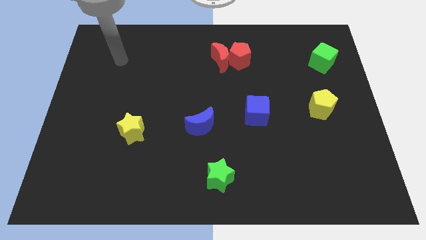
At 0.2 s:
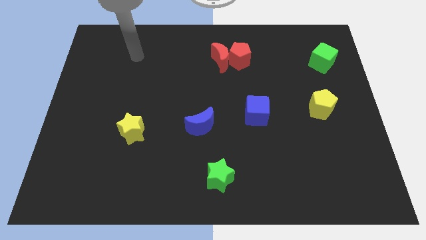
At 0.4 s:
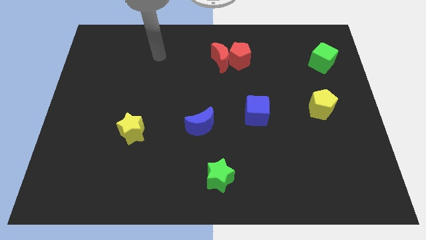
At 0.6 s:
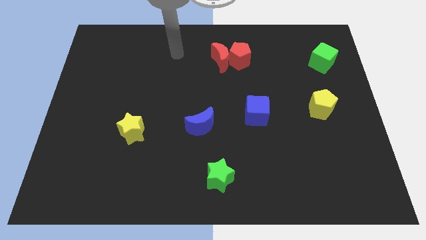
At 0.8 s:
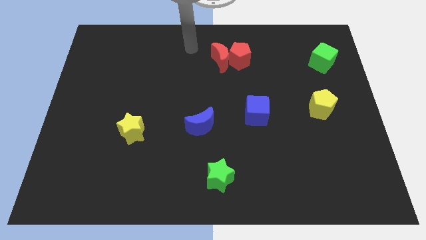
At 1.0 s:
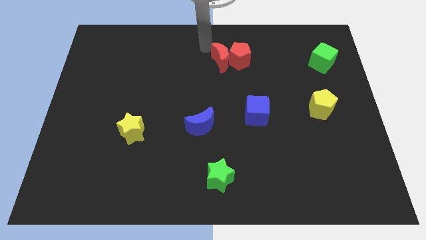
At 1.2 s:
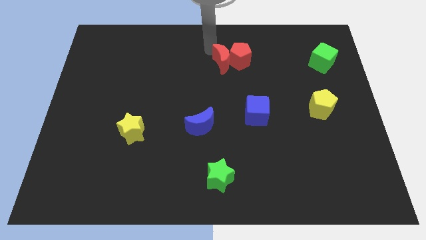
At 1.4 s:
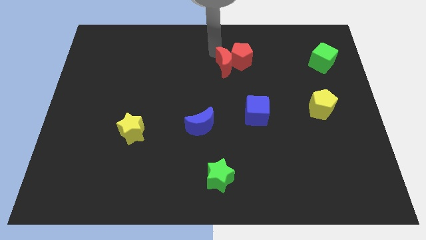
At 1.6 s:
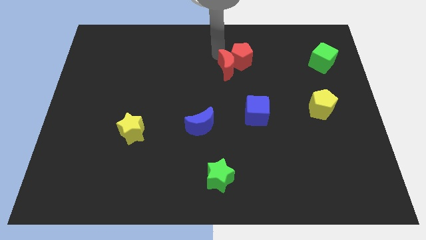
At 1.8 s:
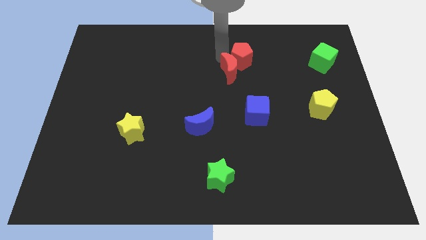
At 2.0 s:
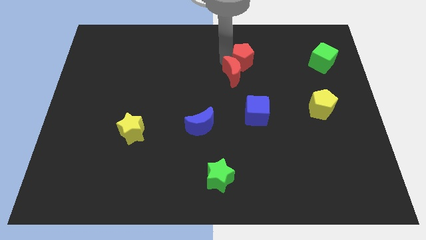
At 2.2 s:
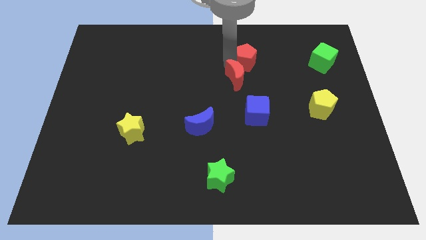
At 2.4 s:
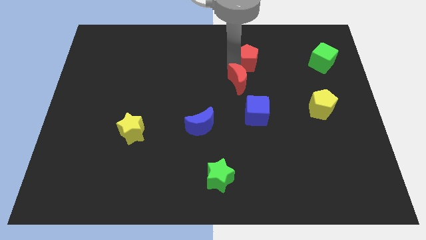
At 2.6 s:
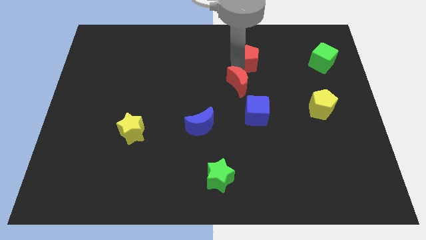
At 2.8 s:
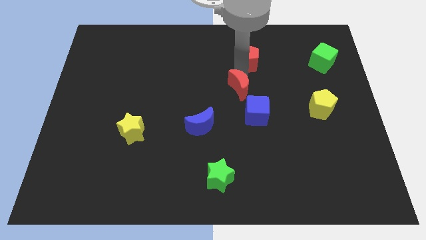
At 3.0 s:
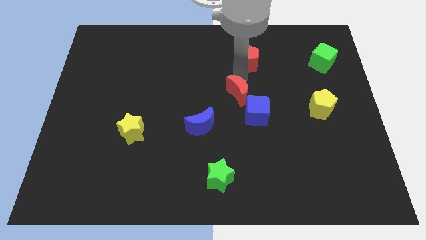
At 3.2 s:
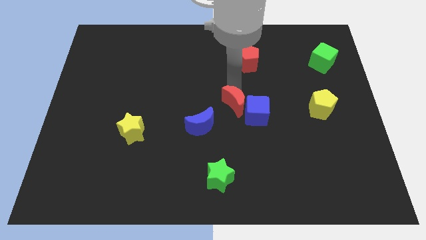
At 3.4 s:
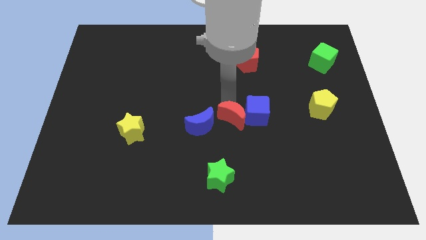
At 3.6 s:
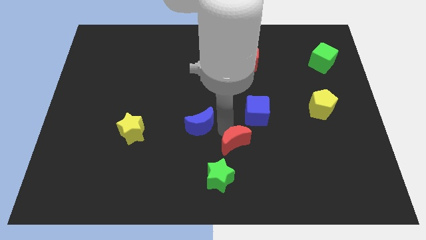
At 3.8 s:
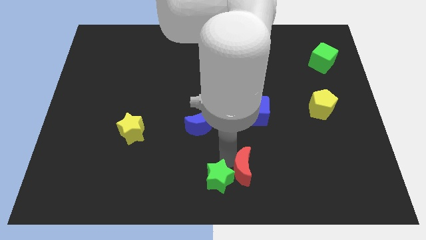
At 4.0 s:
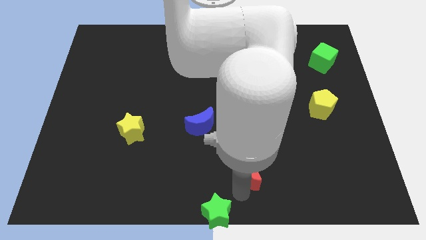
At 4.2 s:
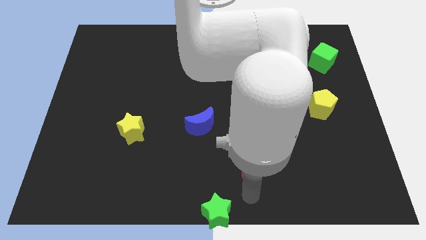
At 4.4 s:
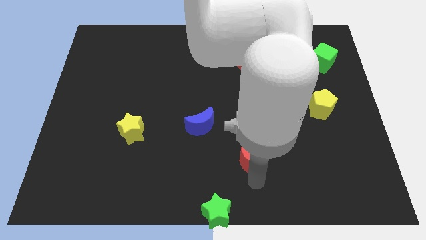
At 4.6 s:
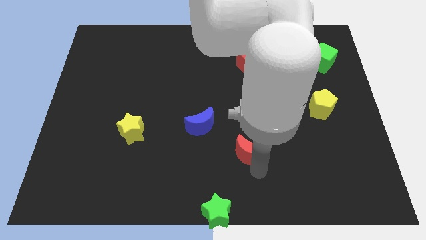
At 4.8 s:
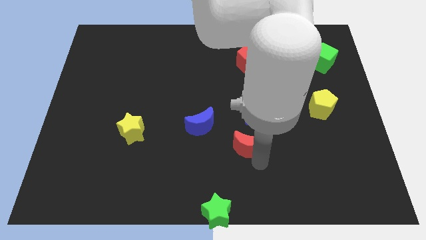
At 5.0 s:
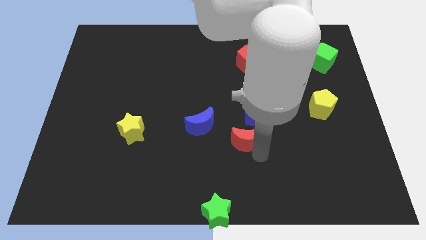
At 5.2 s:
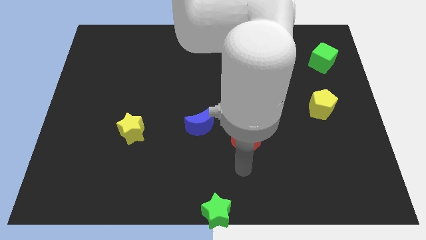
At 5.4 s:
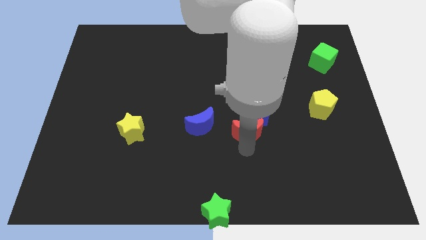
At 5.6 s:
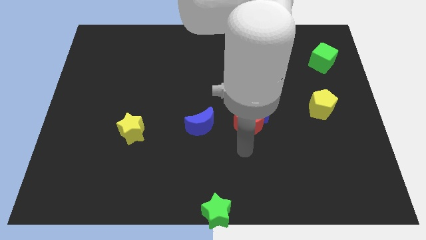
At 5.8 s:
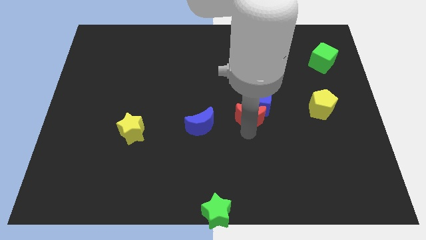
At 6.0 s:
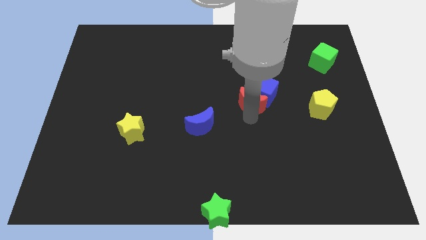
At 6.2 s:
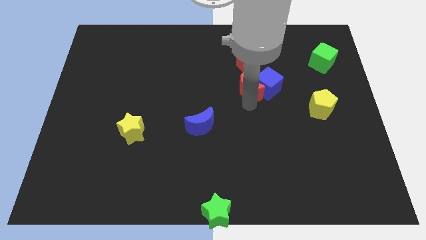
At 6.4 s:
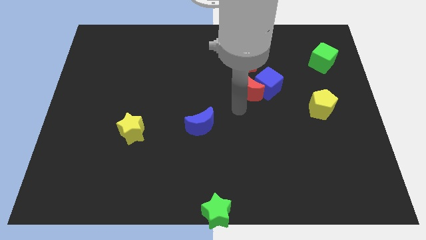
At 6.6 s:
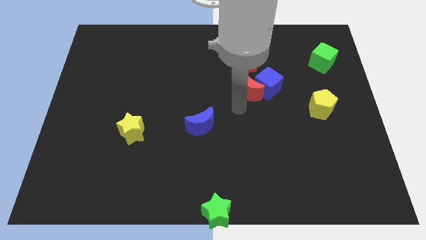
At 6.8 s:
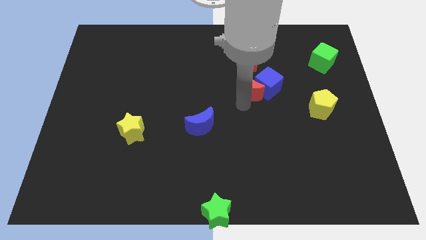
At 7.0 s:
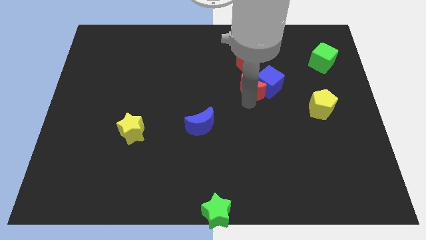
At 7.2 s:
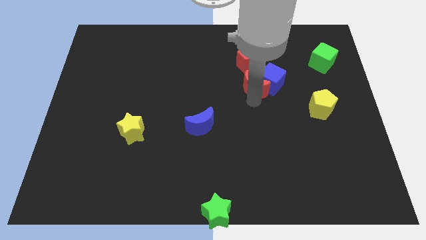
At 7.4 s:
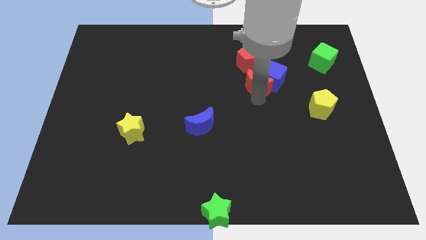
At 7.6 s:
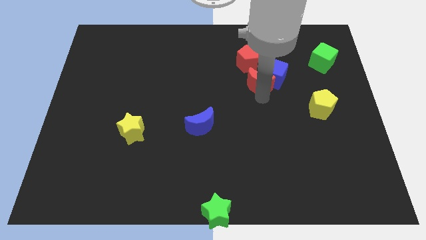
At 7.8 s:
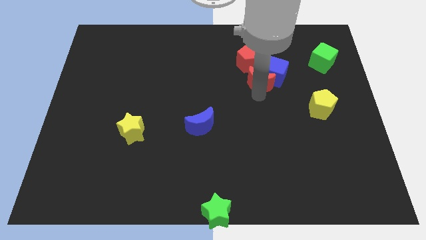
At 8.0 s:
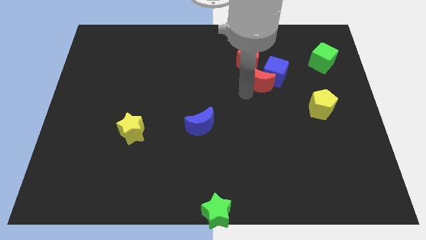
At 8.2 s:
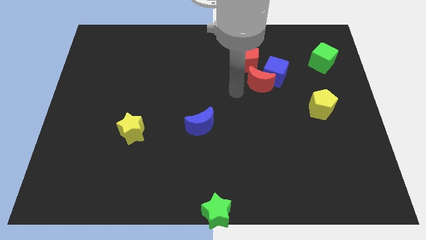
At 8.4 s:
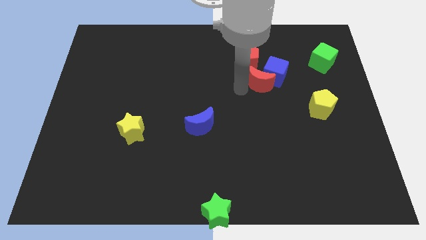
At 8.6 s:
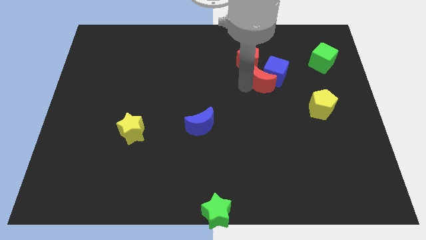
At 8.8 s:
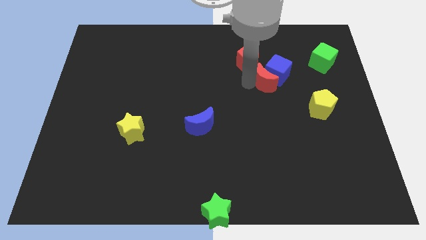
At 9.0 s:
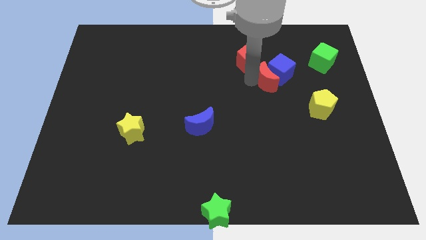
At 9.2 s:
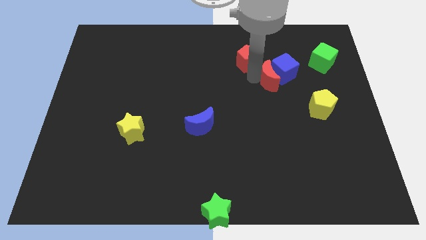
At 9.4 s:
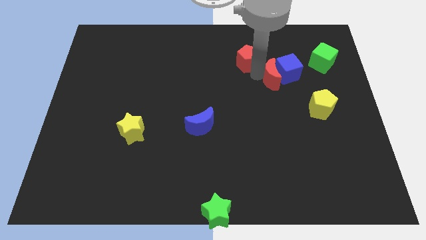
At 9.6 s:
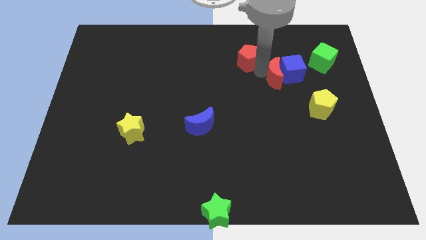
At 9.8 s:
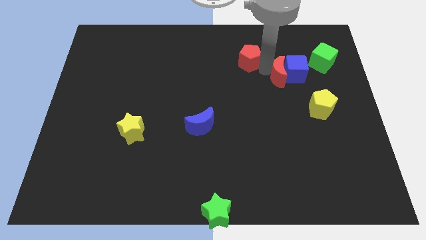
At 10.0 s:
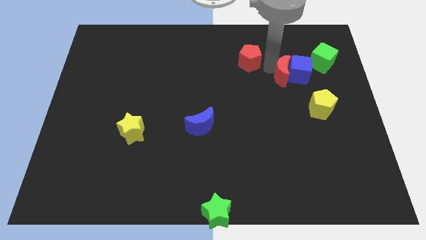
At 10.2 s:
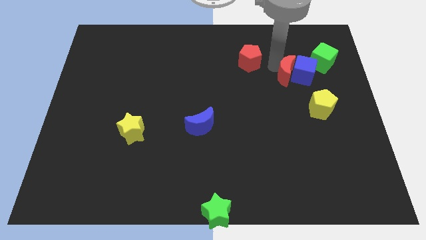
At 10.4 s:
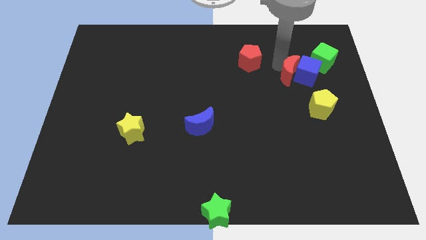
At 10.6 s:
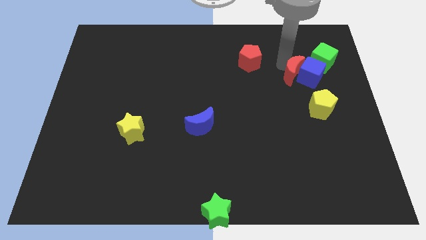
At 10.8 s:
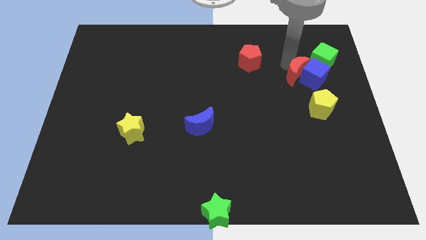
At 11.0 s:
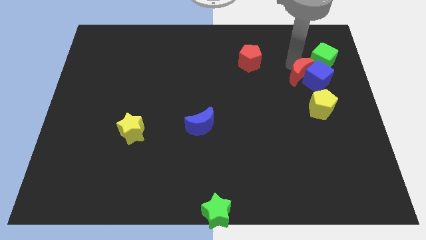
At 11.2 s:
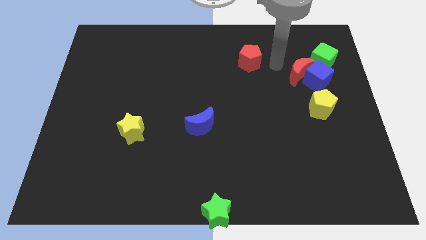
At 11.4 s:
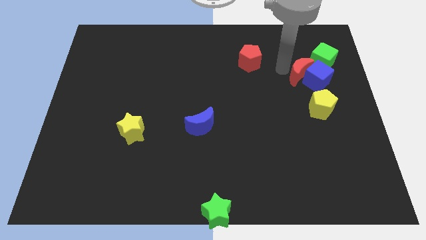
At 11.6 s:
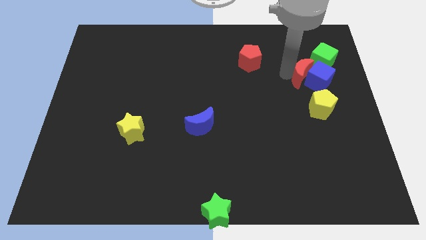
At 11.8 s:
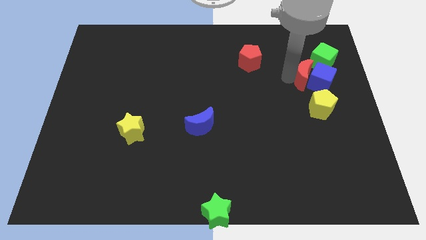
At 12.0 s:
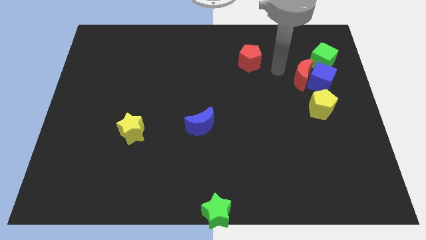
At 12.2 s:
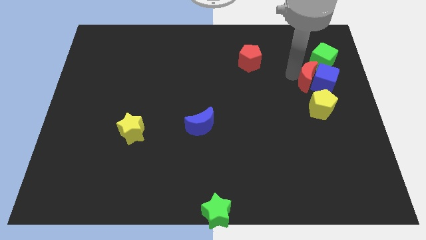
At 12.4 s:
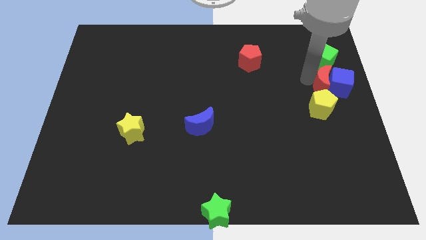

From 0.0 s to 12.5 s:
push the red moon to the center right

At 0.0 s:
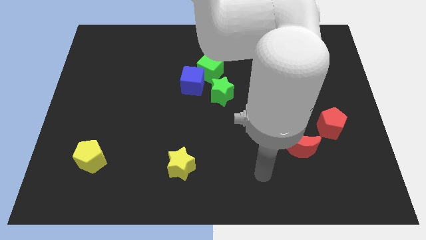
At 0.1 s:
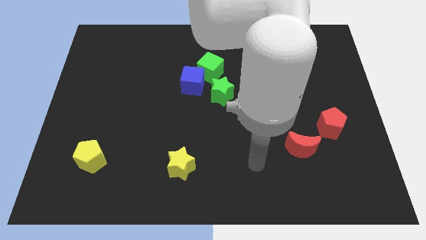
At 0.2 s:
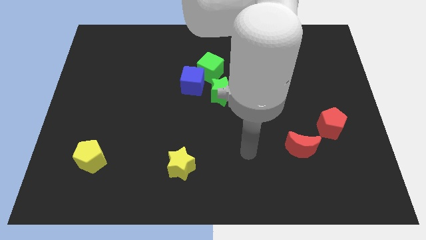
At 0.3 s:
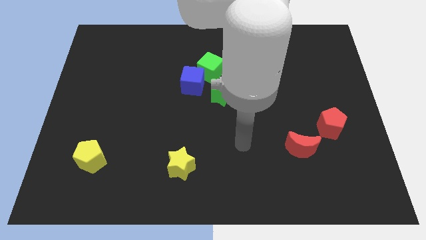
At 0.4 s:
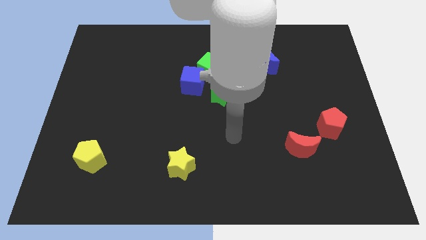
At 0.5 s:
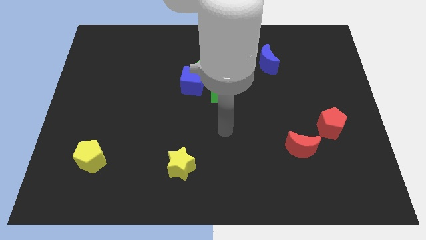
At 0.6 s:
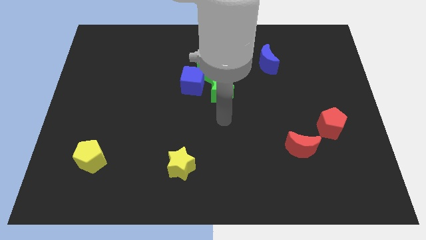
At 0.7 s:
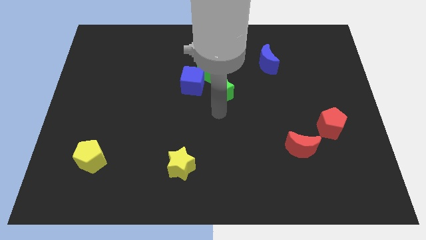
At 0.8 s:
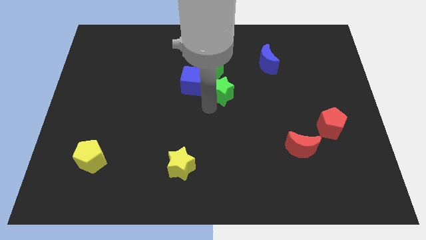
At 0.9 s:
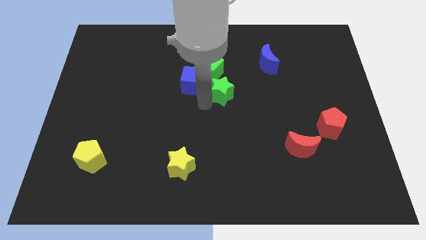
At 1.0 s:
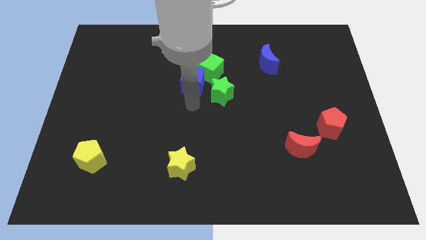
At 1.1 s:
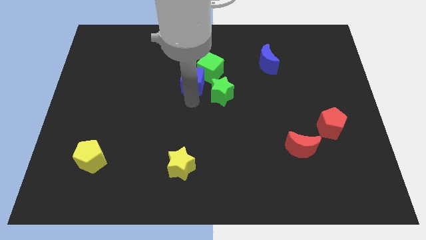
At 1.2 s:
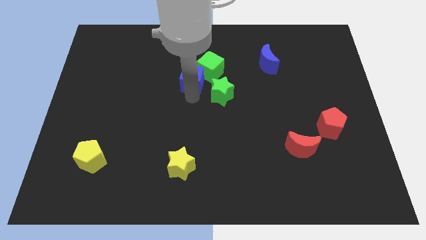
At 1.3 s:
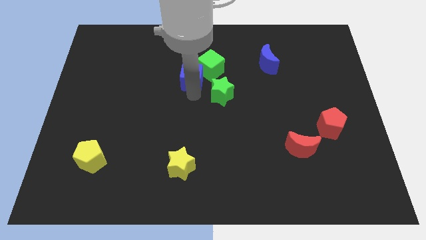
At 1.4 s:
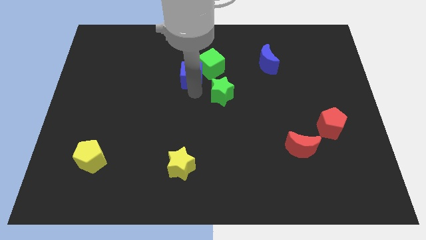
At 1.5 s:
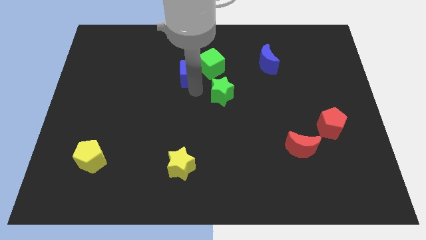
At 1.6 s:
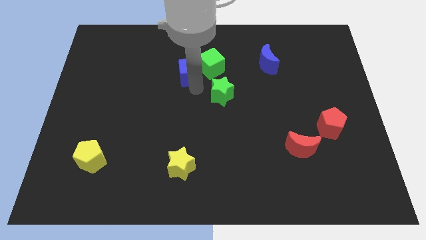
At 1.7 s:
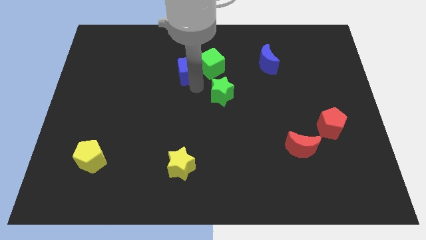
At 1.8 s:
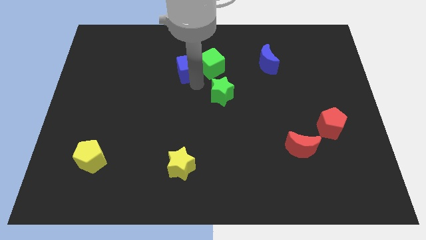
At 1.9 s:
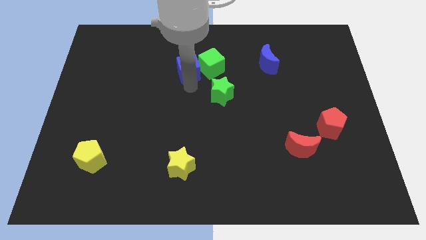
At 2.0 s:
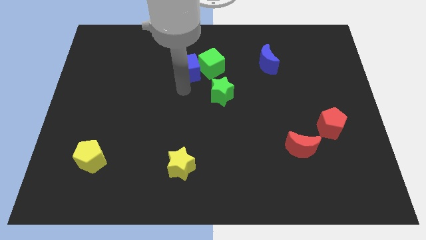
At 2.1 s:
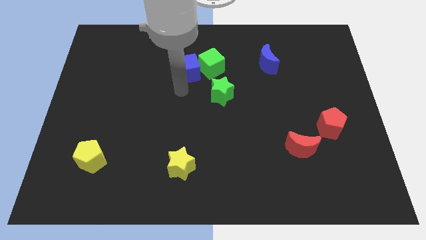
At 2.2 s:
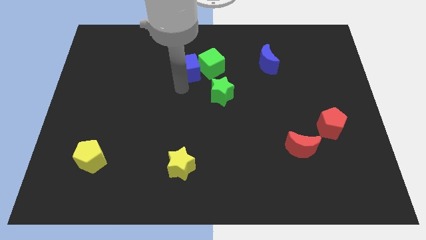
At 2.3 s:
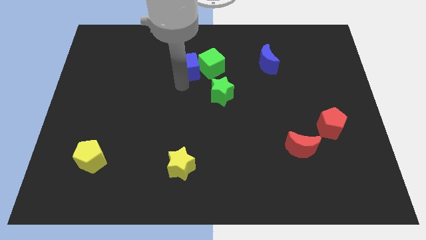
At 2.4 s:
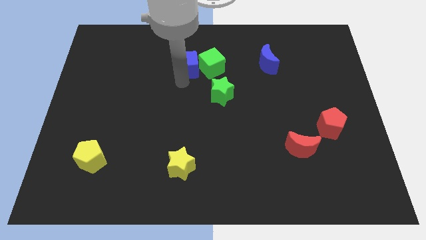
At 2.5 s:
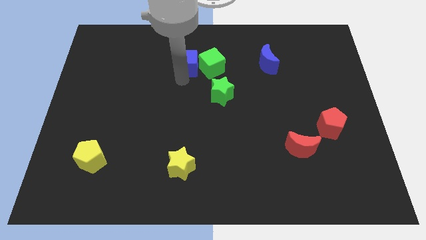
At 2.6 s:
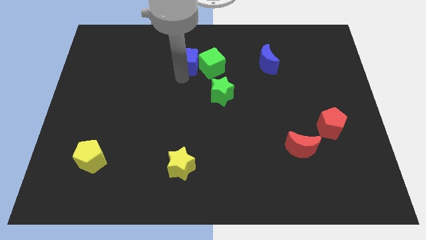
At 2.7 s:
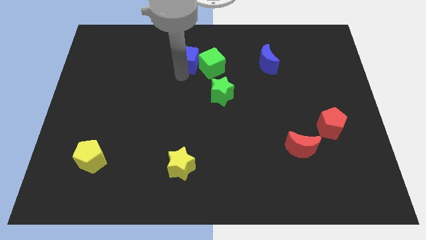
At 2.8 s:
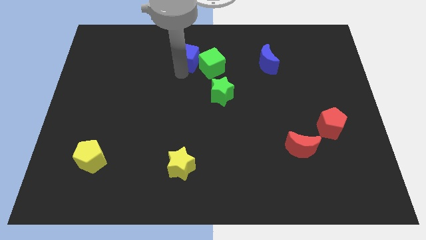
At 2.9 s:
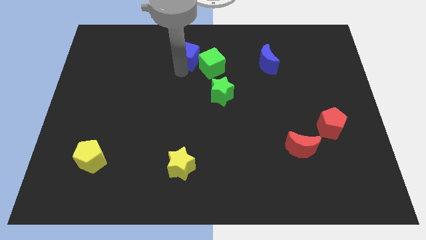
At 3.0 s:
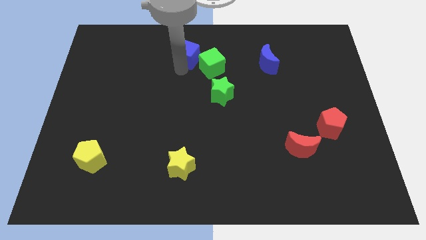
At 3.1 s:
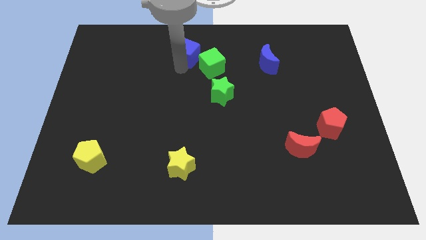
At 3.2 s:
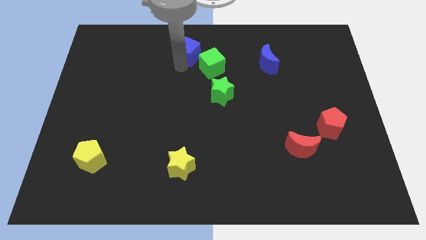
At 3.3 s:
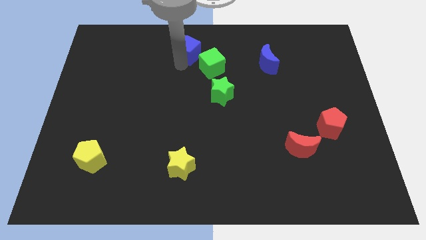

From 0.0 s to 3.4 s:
slide the blue cube to the top side
